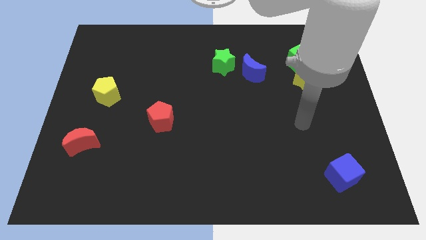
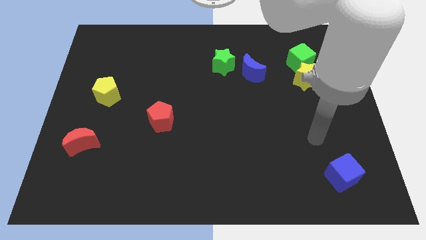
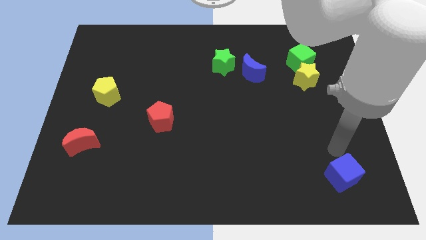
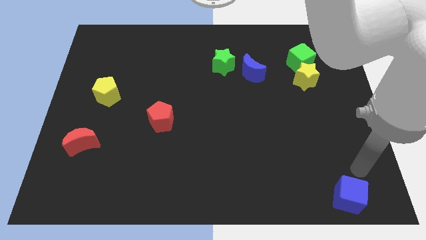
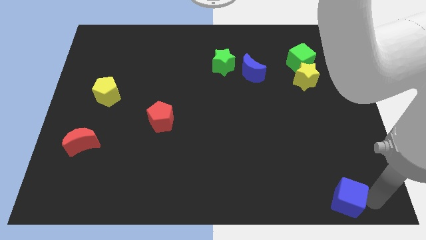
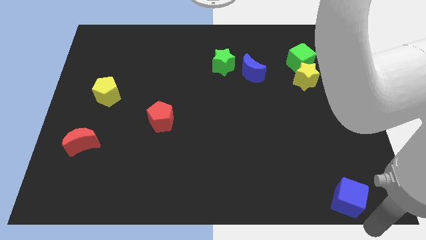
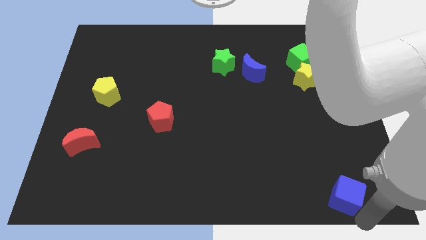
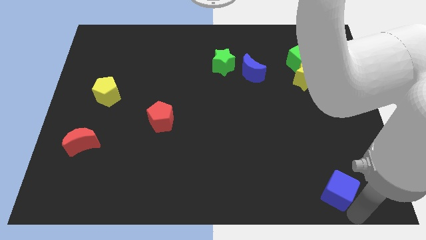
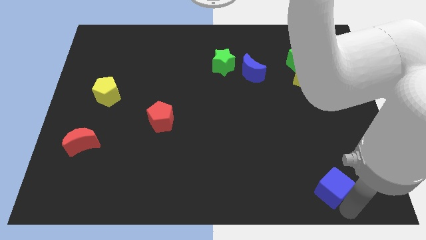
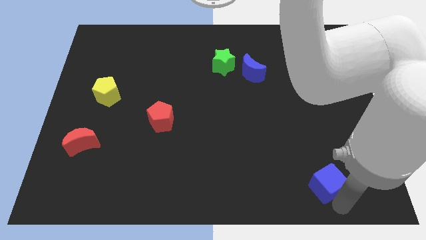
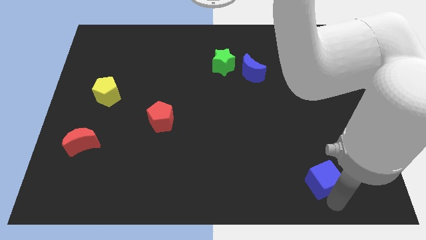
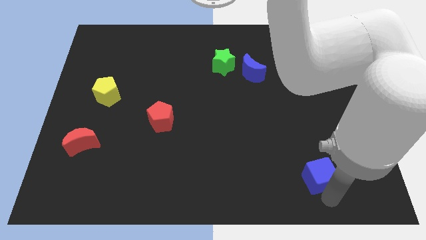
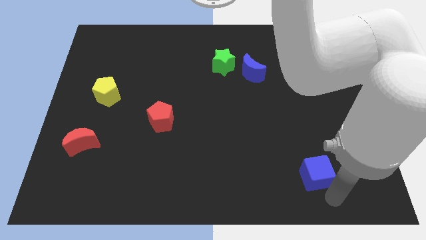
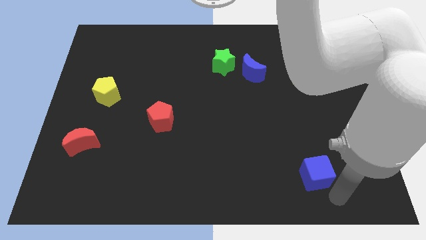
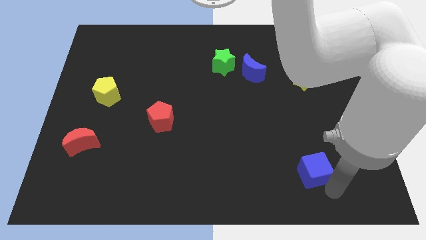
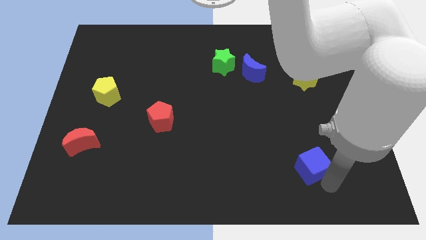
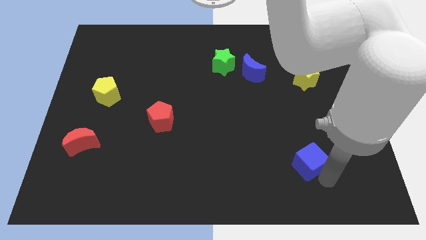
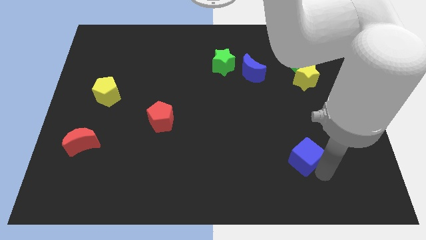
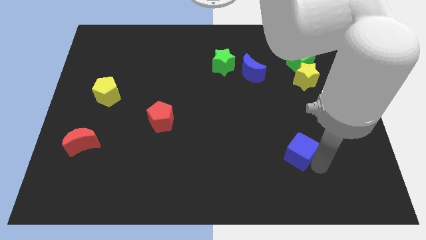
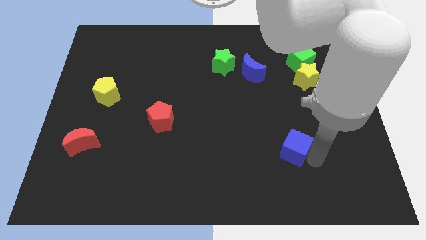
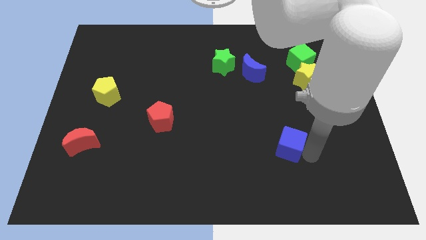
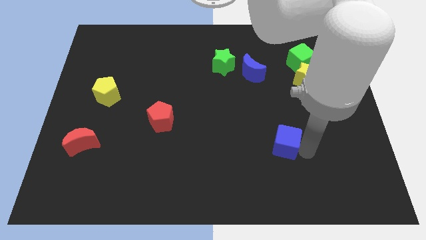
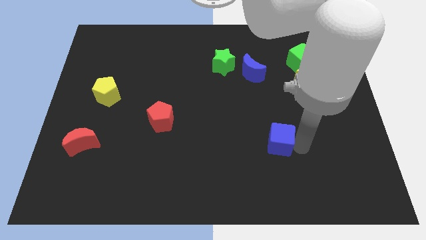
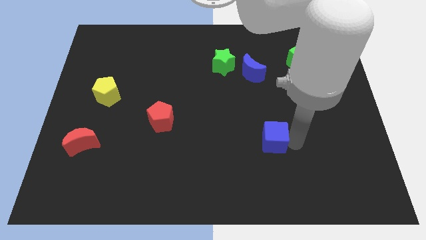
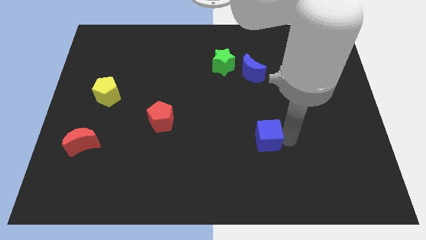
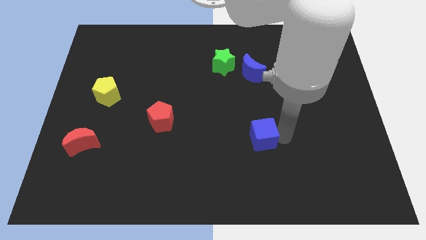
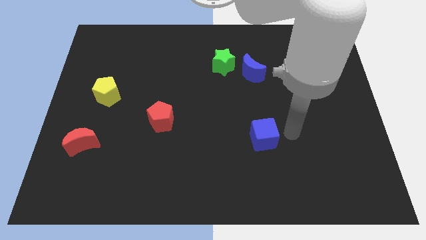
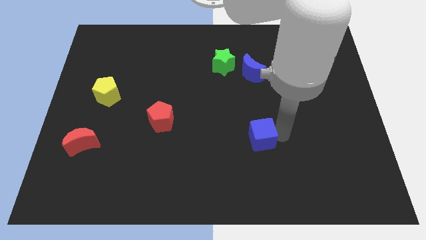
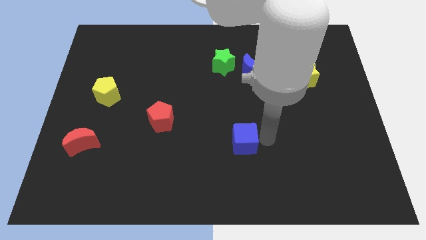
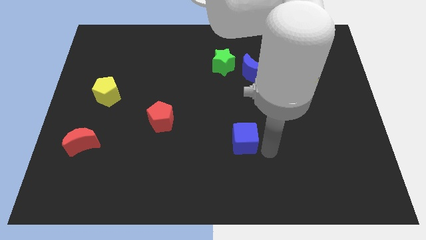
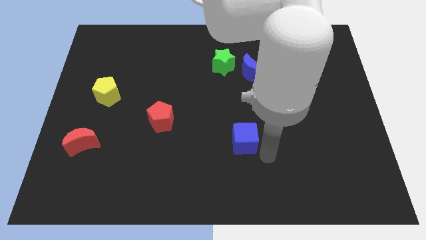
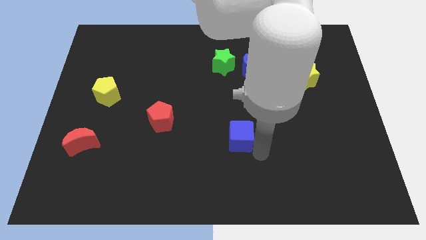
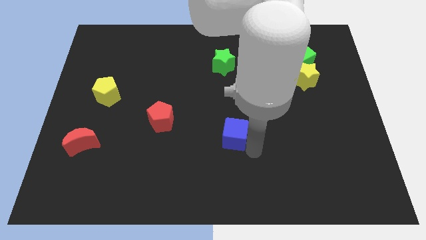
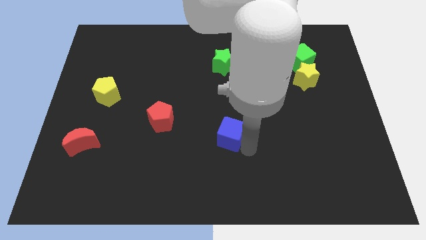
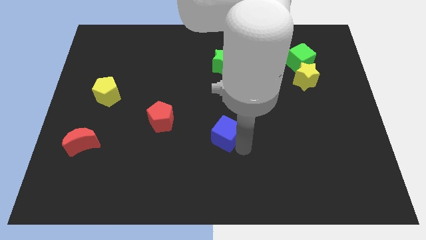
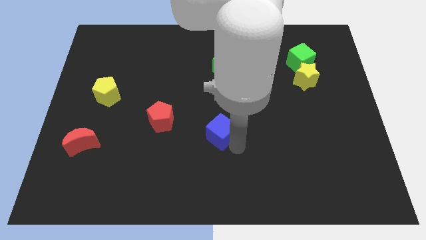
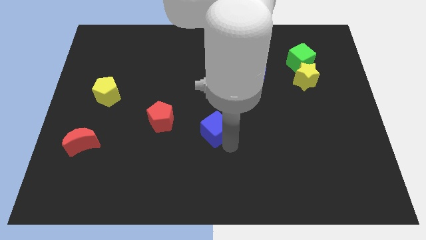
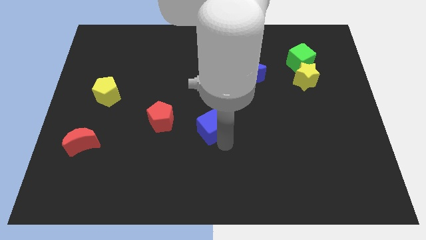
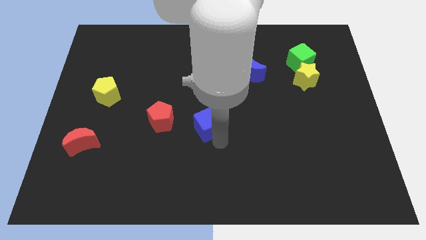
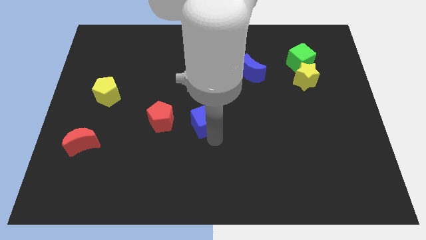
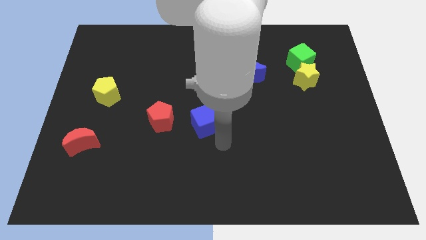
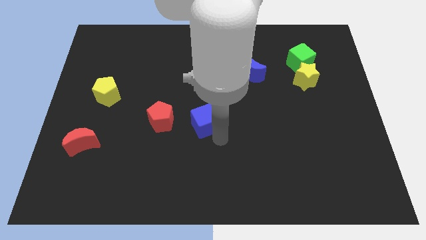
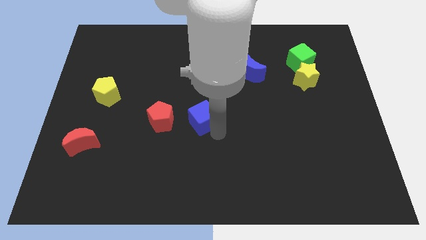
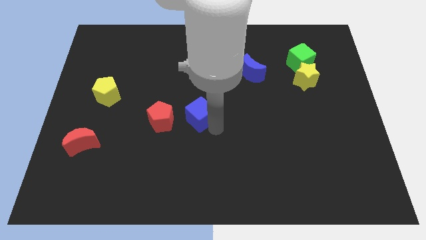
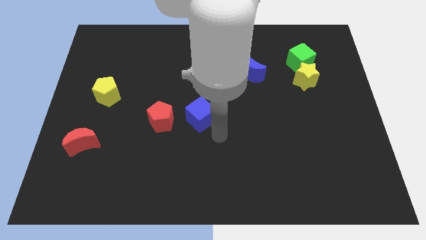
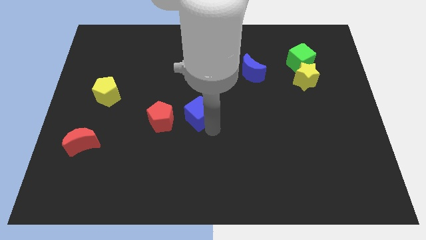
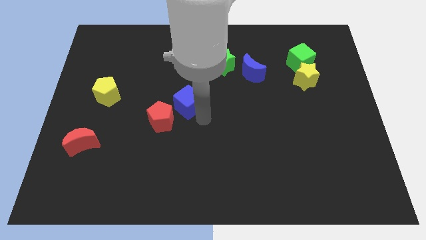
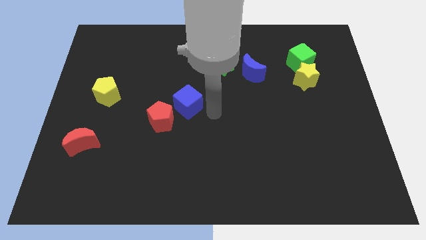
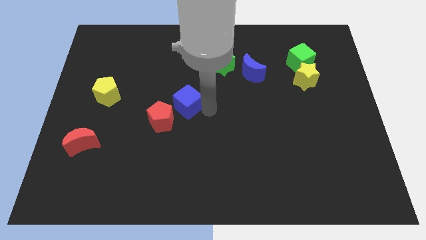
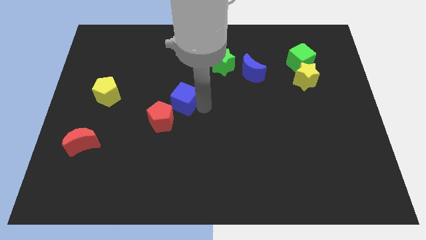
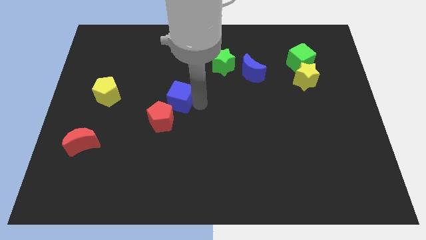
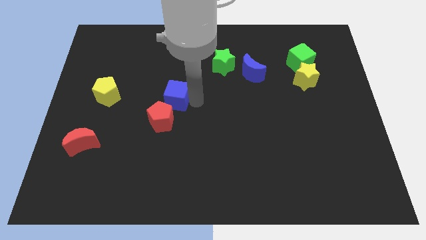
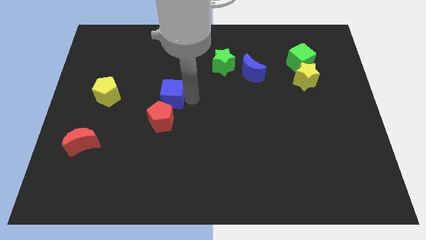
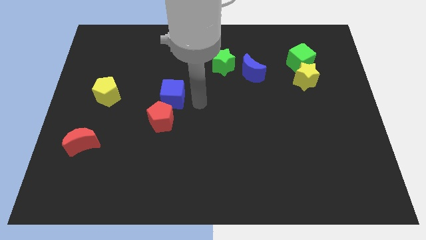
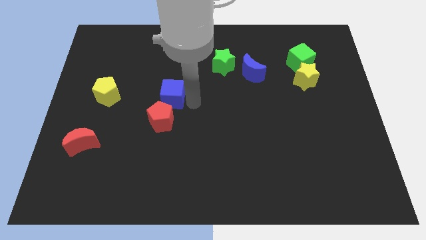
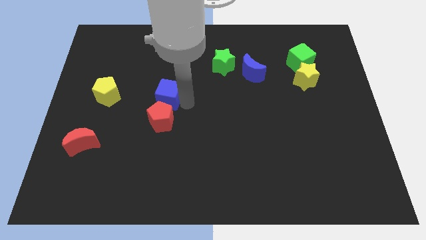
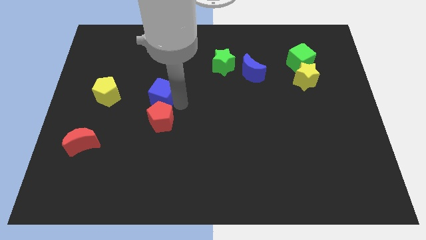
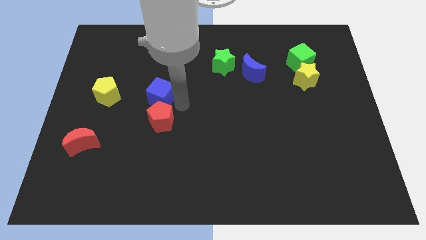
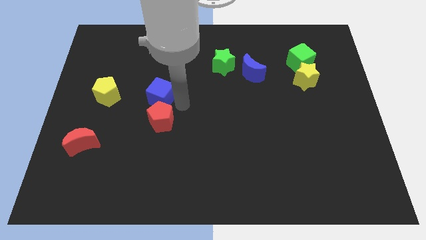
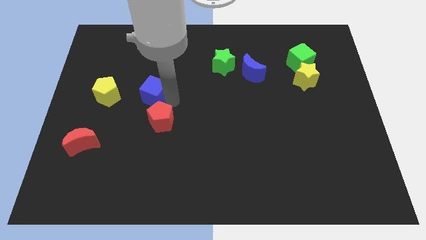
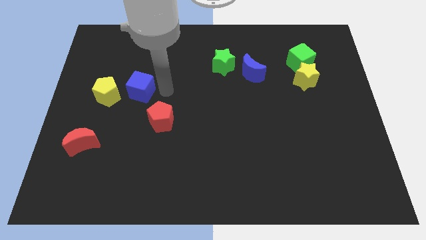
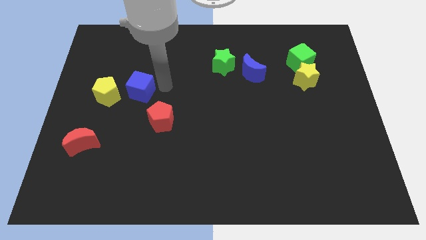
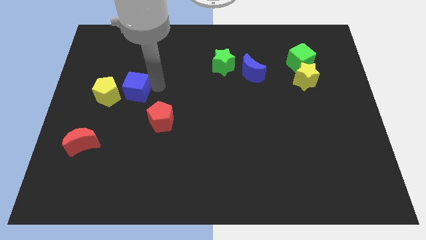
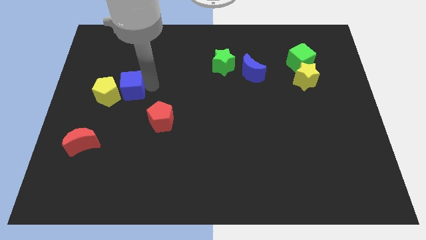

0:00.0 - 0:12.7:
put the blue cube close to the yellow pentagon
